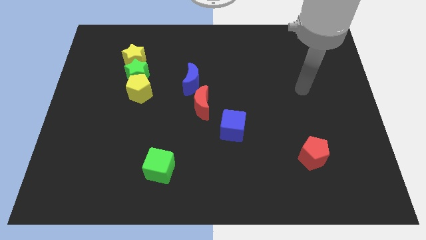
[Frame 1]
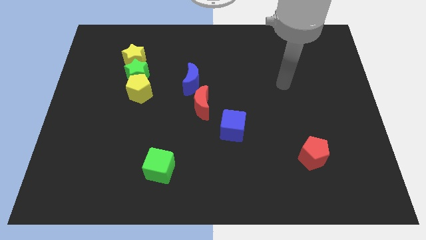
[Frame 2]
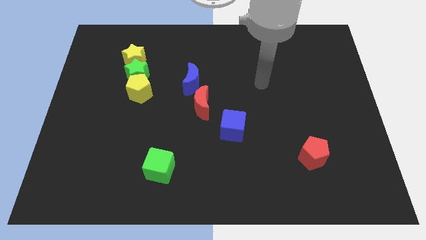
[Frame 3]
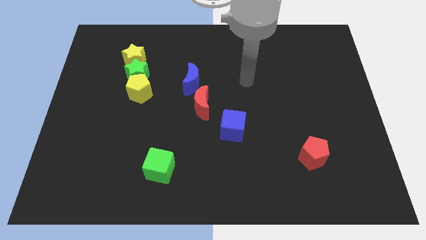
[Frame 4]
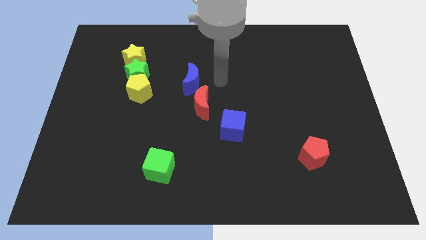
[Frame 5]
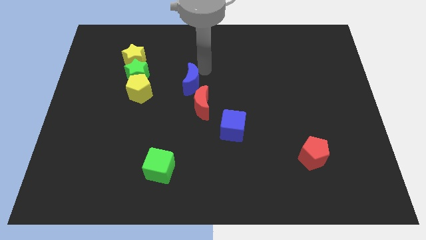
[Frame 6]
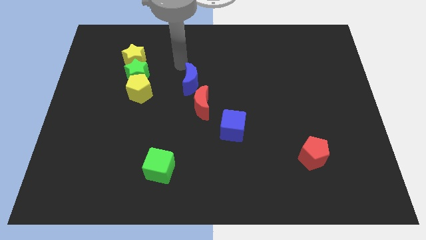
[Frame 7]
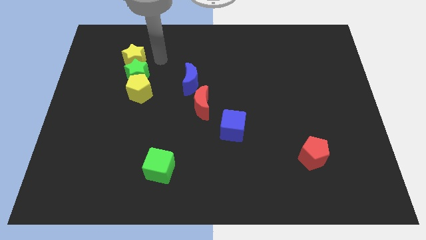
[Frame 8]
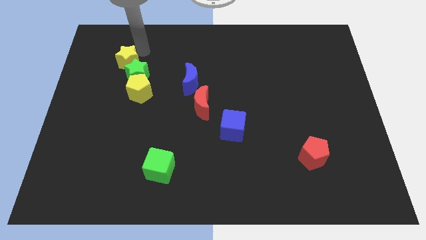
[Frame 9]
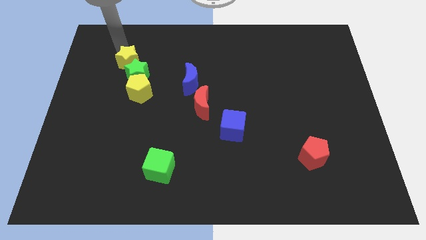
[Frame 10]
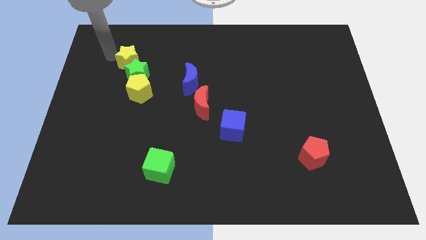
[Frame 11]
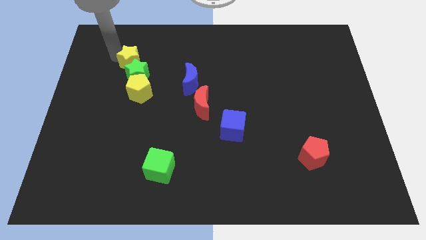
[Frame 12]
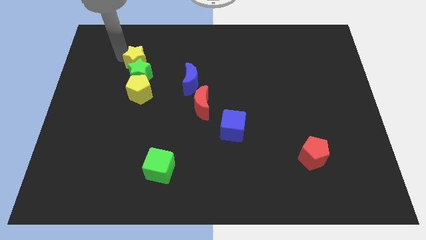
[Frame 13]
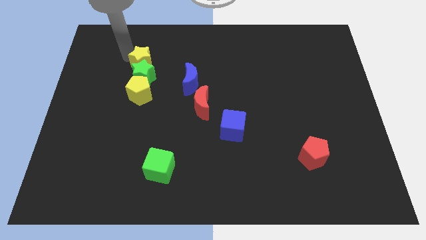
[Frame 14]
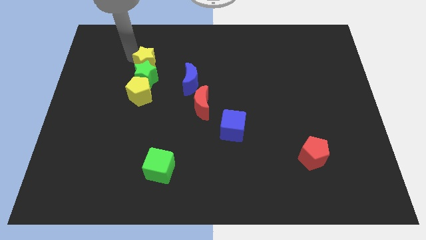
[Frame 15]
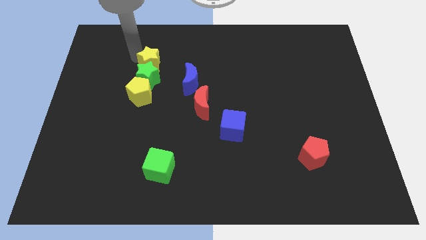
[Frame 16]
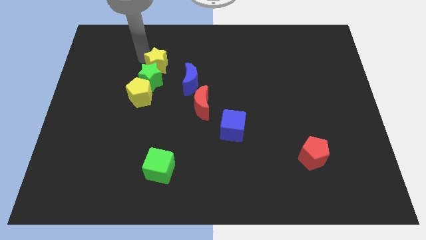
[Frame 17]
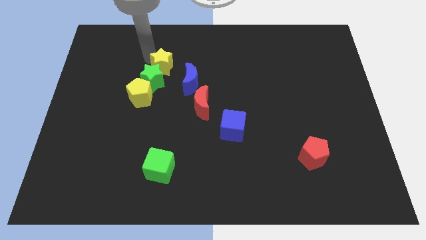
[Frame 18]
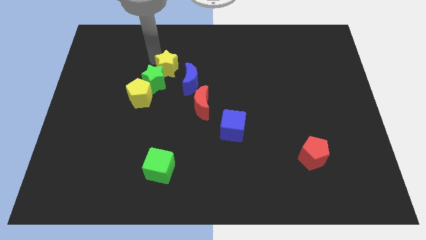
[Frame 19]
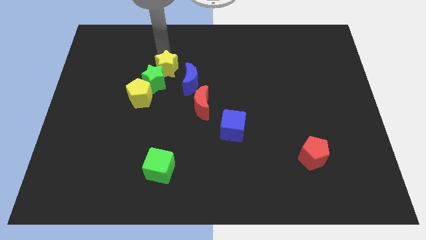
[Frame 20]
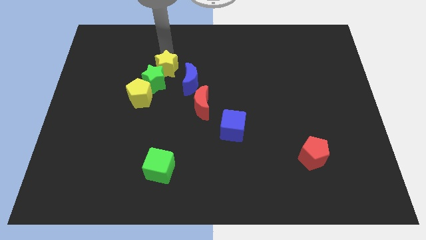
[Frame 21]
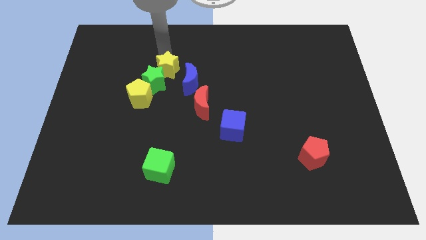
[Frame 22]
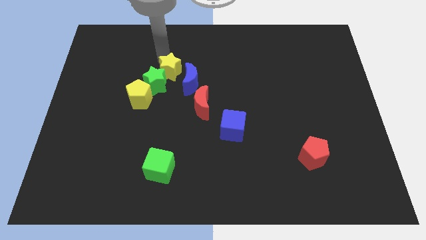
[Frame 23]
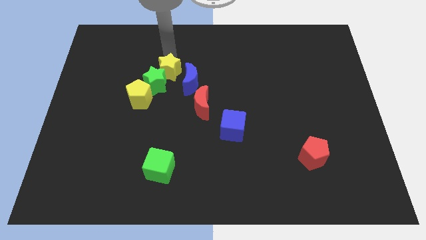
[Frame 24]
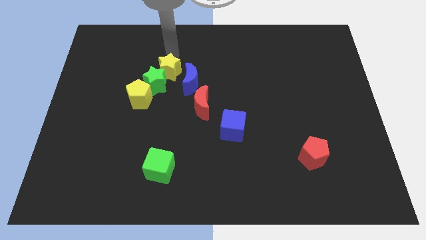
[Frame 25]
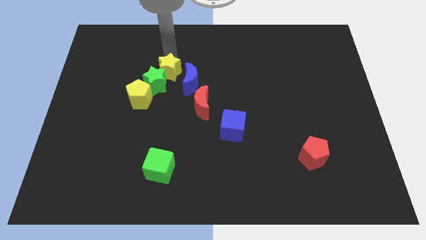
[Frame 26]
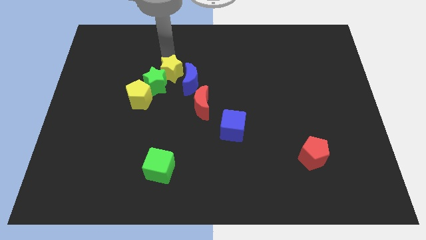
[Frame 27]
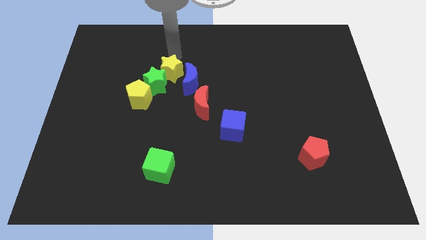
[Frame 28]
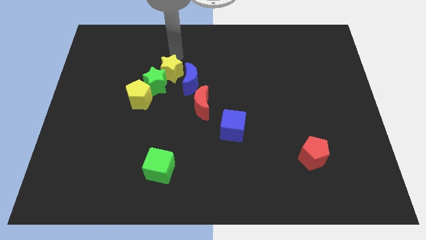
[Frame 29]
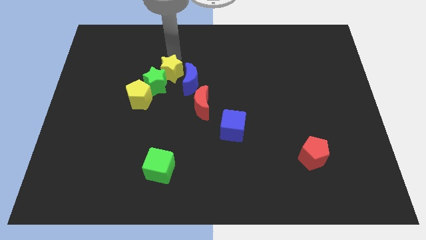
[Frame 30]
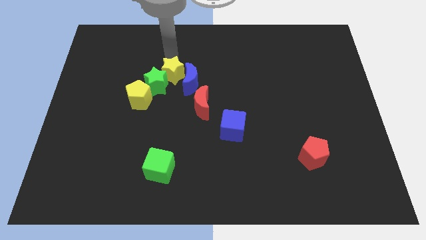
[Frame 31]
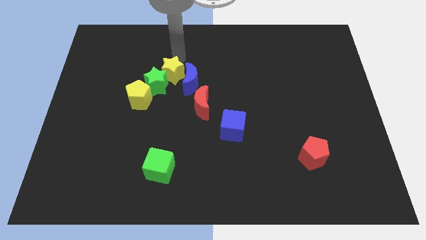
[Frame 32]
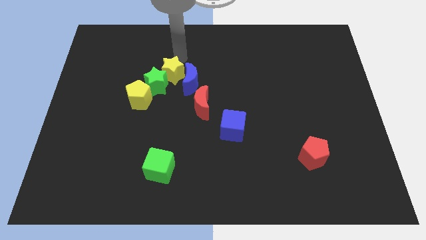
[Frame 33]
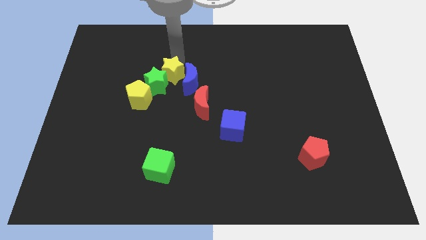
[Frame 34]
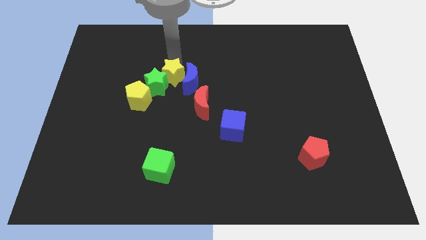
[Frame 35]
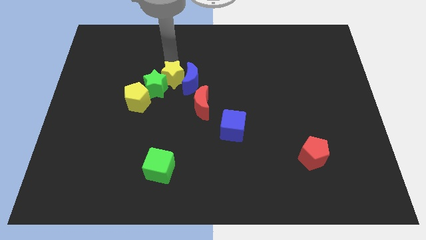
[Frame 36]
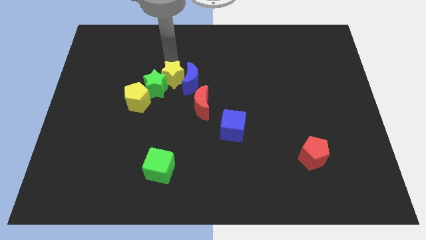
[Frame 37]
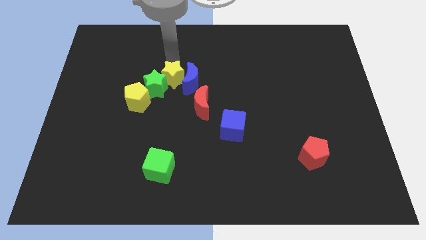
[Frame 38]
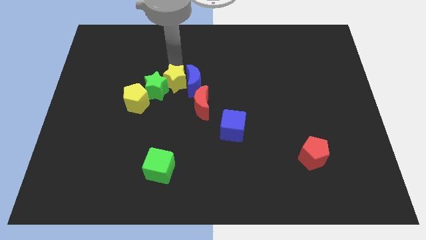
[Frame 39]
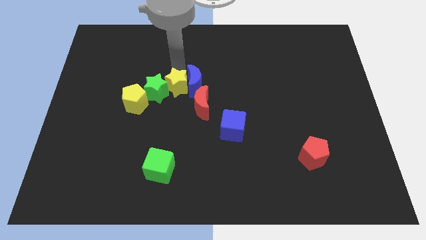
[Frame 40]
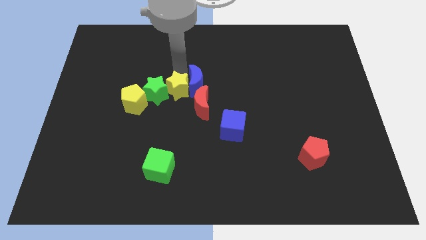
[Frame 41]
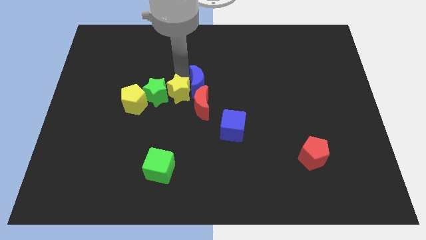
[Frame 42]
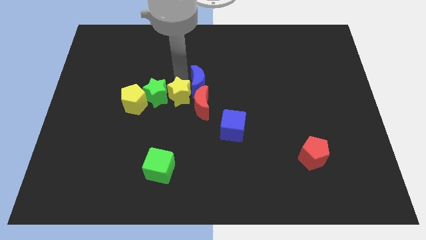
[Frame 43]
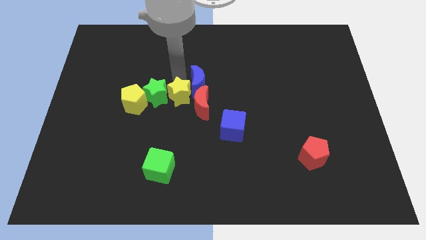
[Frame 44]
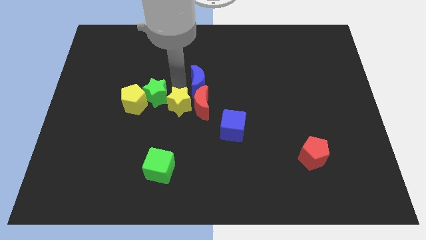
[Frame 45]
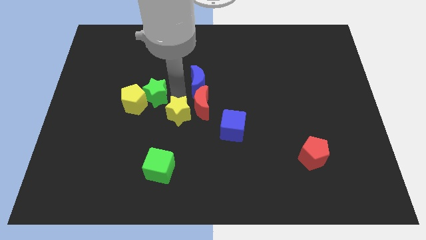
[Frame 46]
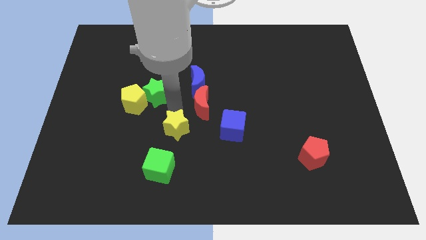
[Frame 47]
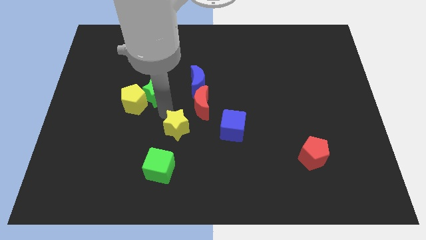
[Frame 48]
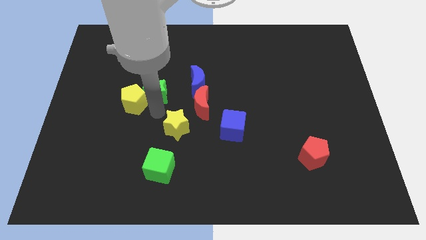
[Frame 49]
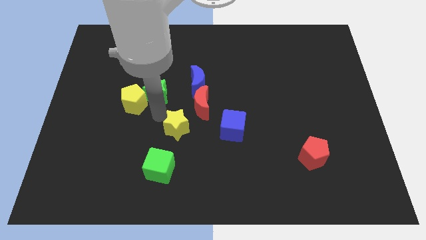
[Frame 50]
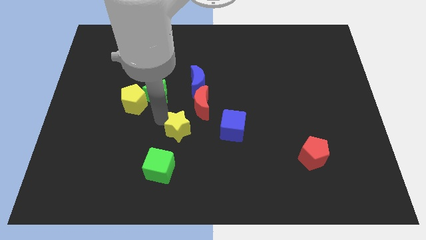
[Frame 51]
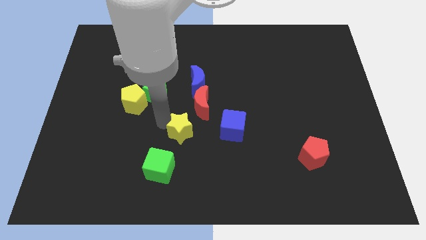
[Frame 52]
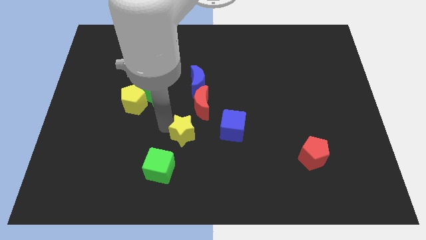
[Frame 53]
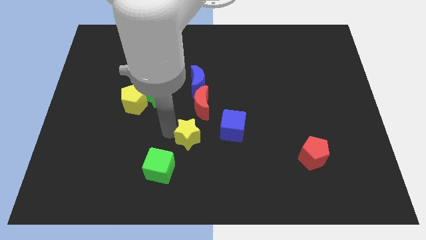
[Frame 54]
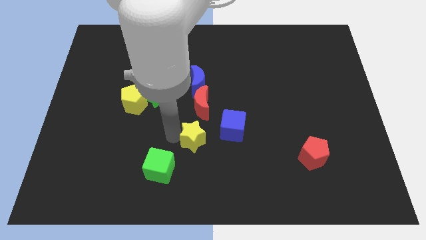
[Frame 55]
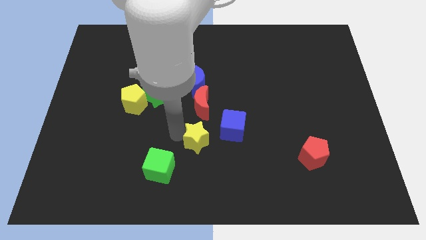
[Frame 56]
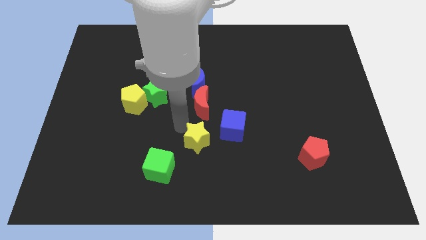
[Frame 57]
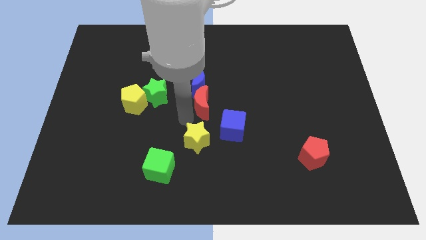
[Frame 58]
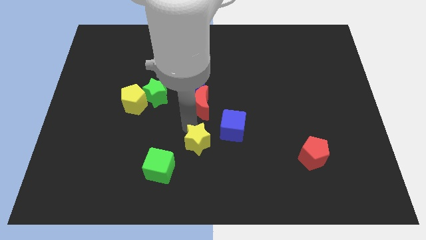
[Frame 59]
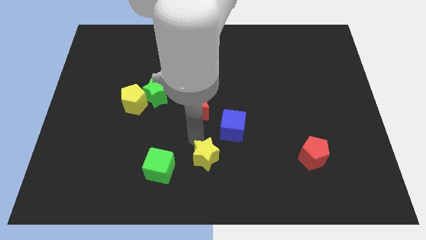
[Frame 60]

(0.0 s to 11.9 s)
push the yellow star to the bottom

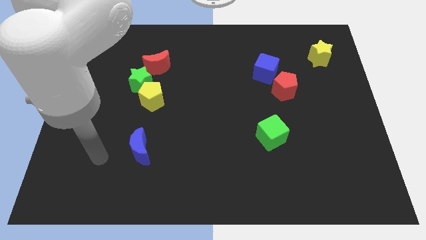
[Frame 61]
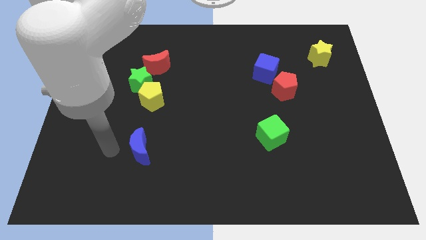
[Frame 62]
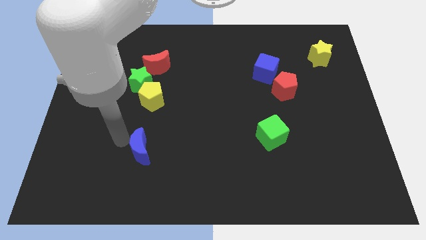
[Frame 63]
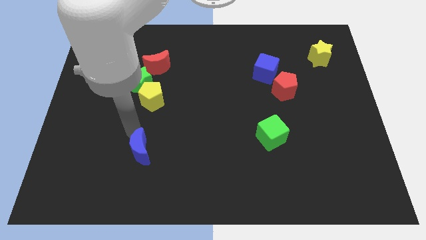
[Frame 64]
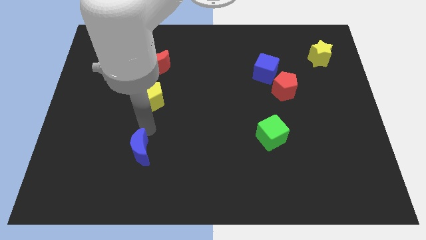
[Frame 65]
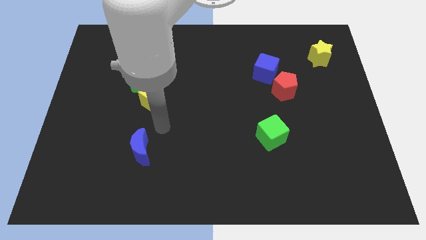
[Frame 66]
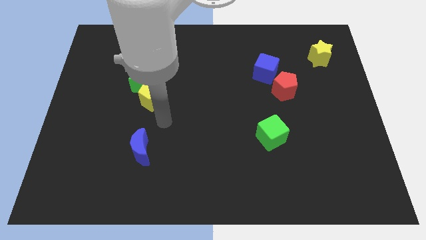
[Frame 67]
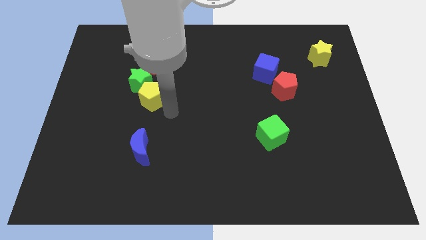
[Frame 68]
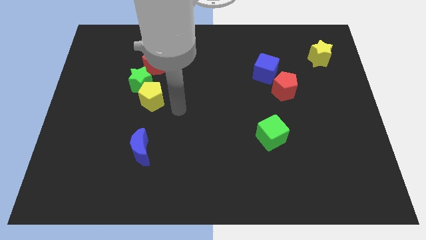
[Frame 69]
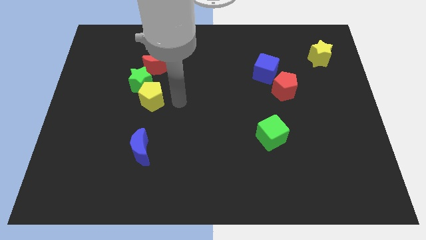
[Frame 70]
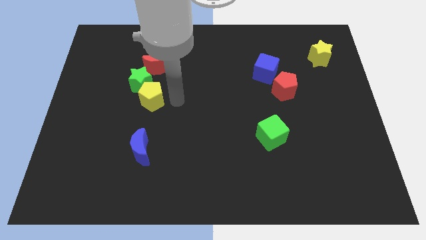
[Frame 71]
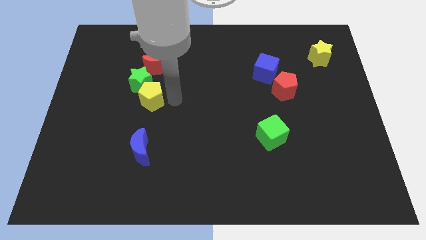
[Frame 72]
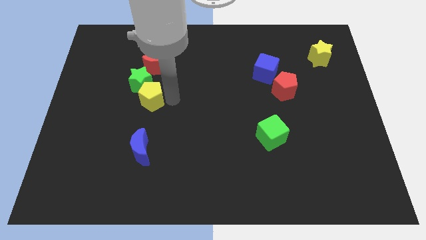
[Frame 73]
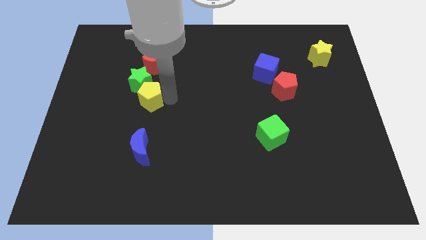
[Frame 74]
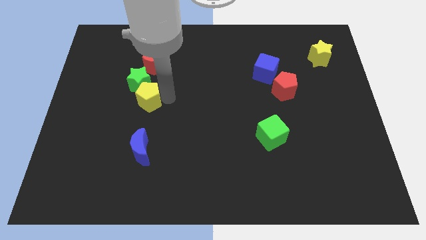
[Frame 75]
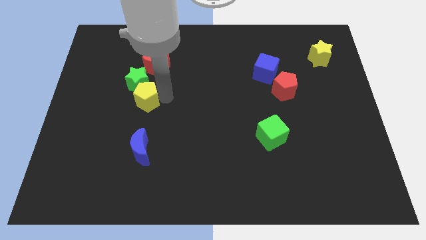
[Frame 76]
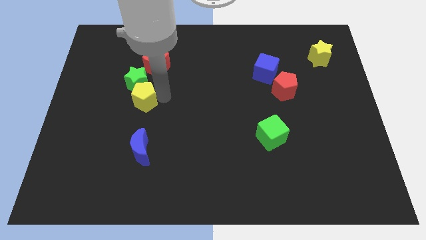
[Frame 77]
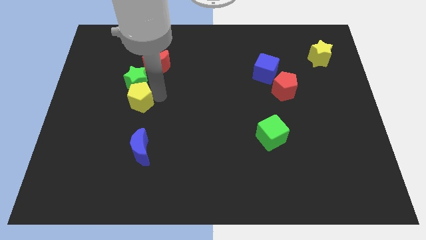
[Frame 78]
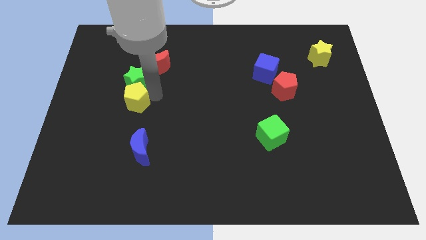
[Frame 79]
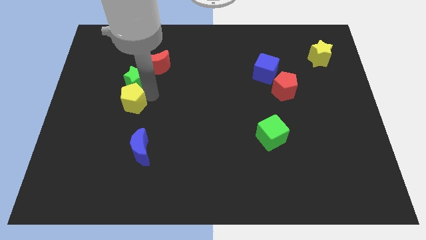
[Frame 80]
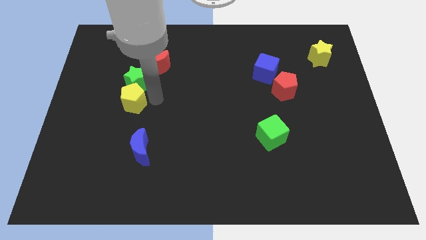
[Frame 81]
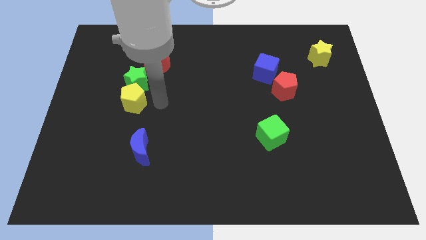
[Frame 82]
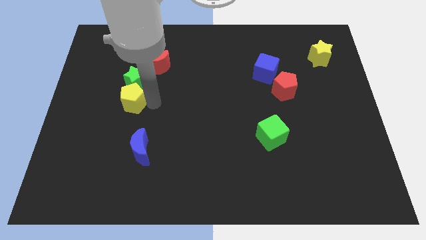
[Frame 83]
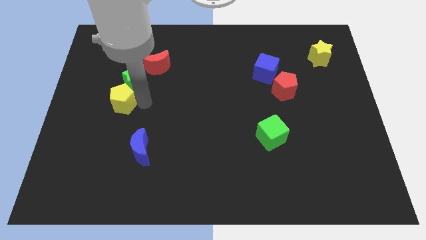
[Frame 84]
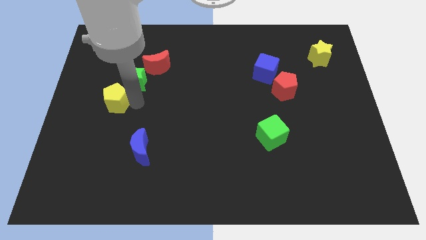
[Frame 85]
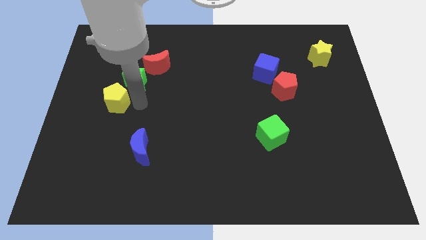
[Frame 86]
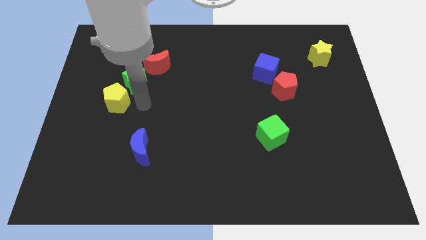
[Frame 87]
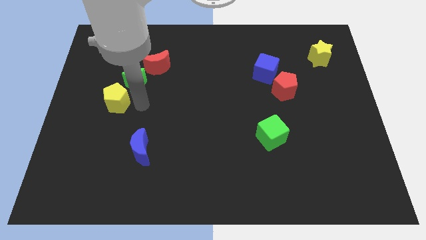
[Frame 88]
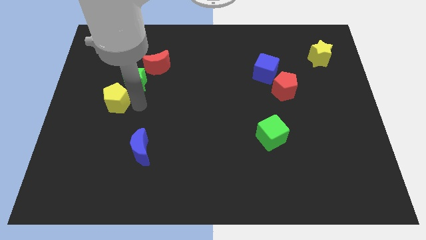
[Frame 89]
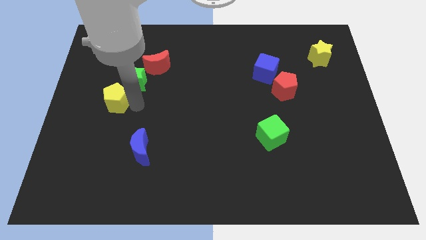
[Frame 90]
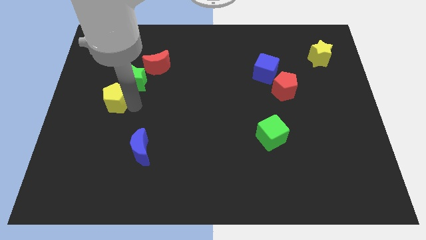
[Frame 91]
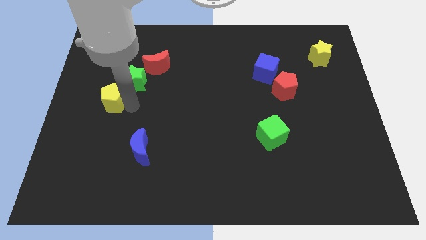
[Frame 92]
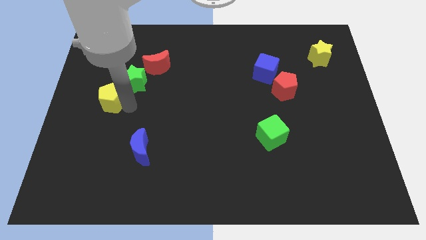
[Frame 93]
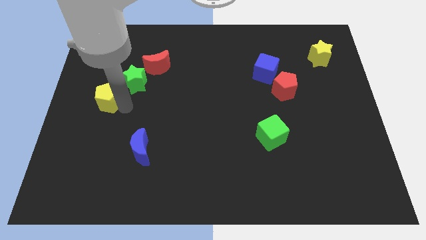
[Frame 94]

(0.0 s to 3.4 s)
move the yellow pentagon to the left side of the board
